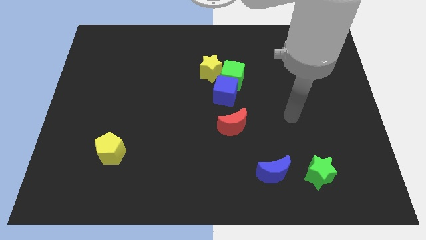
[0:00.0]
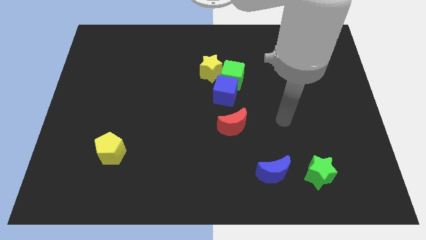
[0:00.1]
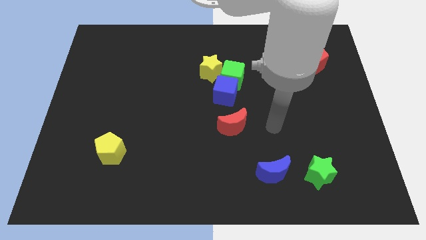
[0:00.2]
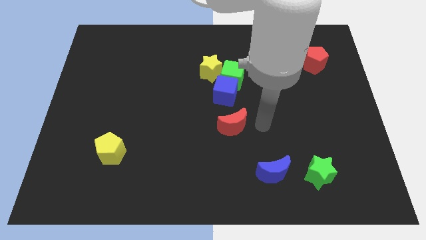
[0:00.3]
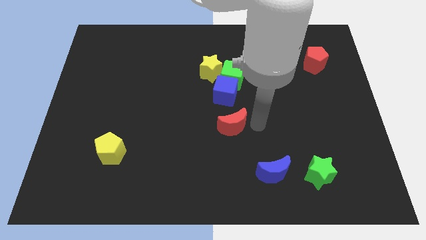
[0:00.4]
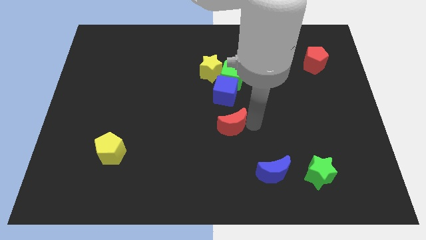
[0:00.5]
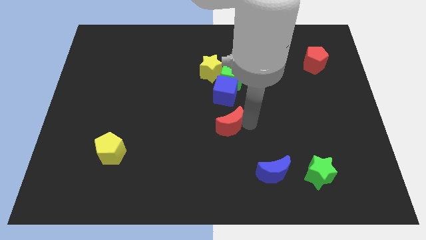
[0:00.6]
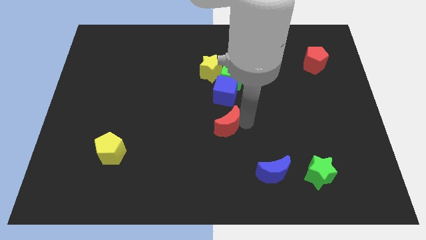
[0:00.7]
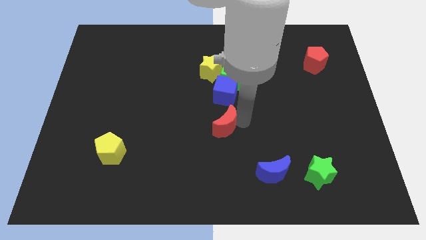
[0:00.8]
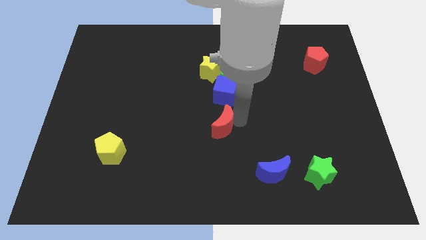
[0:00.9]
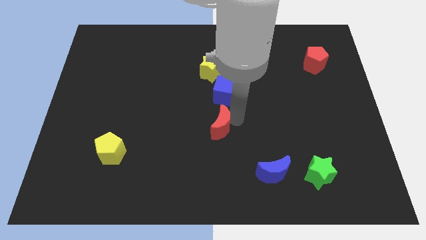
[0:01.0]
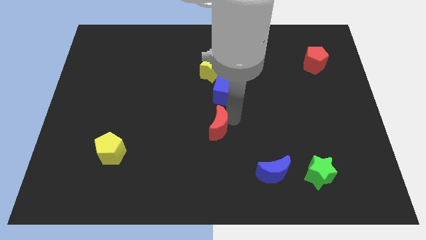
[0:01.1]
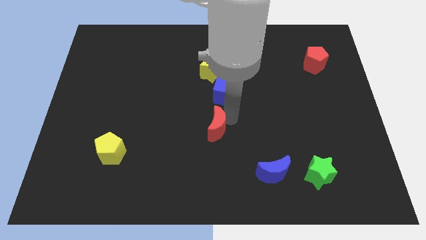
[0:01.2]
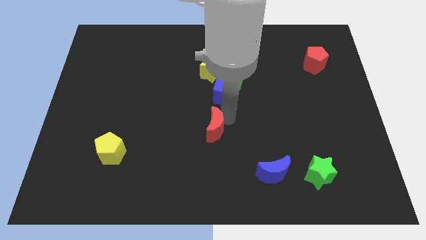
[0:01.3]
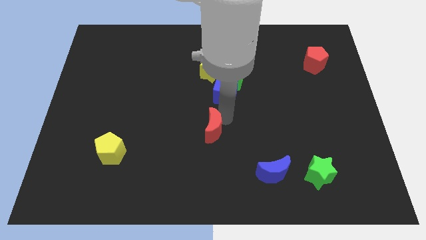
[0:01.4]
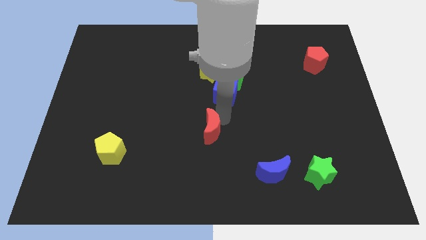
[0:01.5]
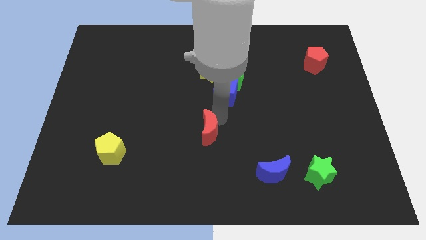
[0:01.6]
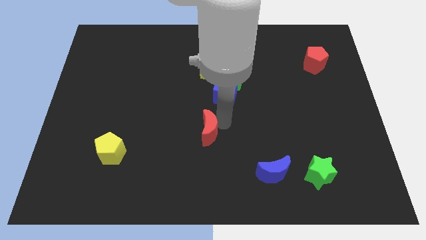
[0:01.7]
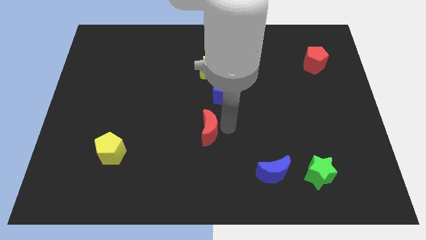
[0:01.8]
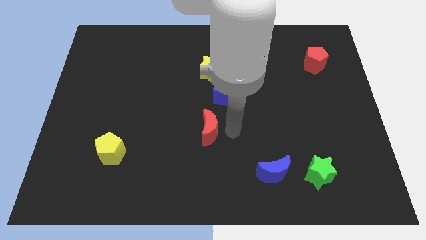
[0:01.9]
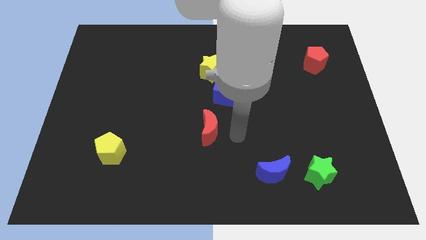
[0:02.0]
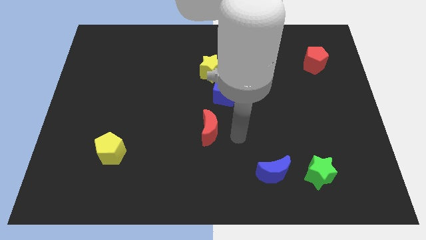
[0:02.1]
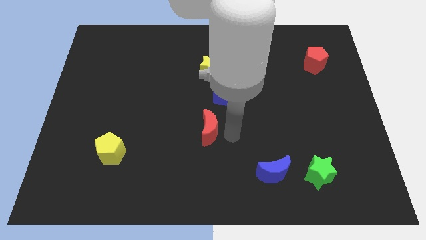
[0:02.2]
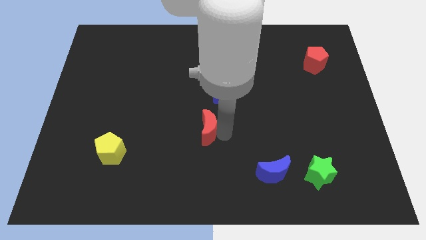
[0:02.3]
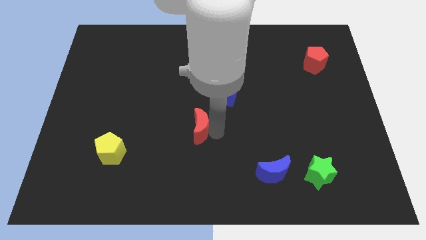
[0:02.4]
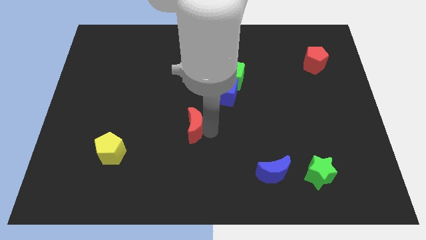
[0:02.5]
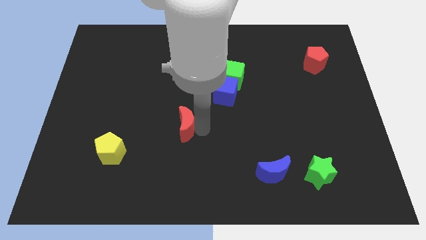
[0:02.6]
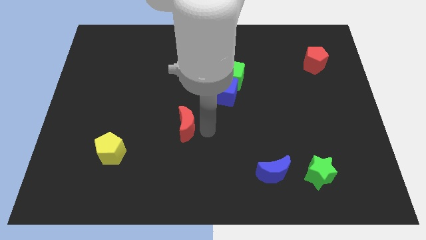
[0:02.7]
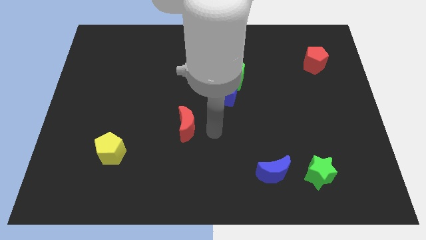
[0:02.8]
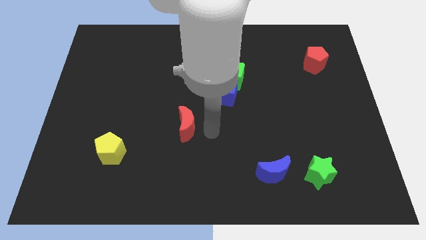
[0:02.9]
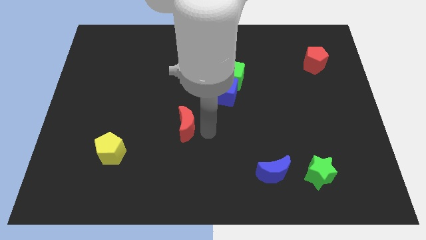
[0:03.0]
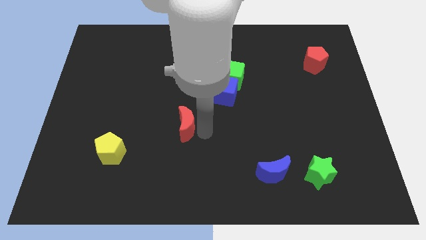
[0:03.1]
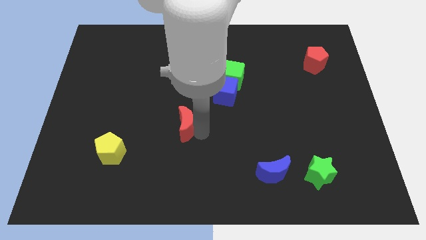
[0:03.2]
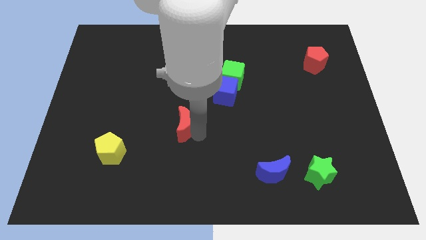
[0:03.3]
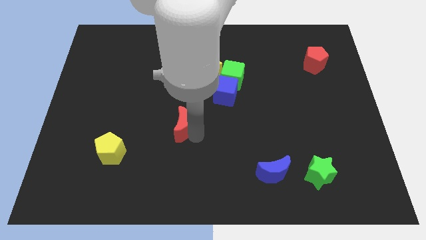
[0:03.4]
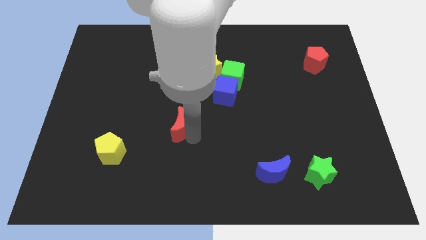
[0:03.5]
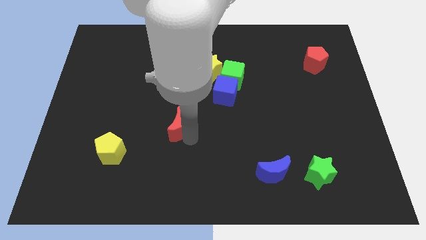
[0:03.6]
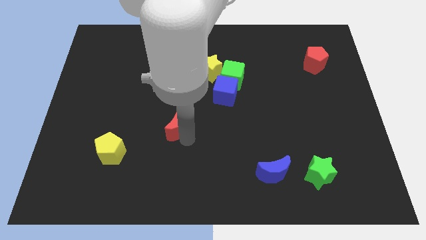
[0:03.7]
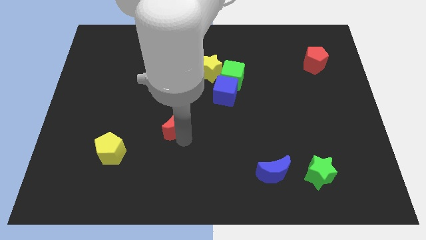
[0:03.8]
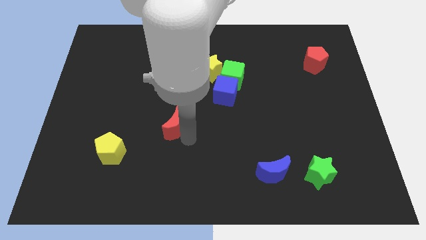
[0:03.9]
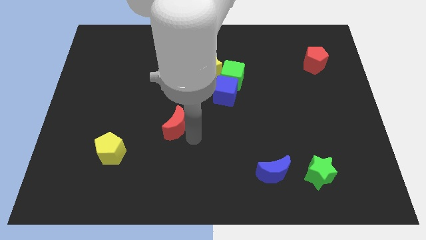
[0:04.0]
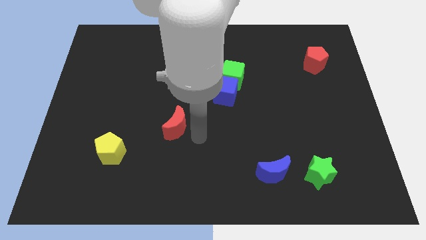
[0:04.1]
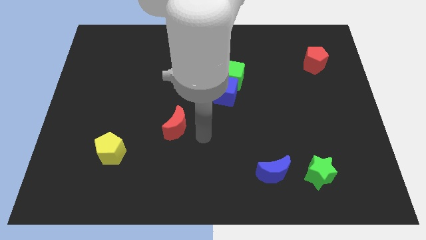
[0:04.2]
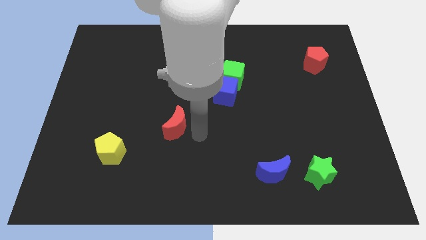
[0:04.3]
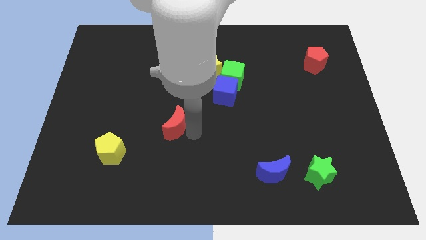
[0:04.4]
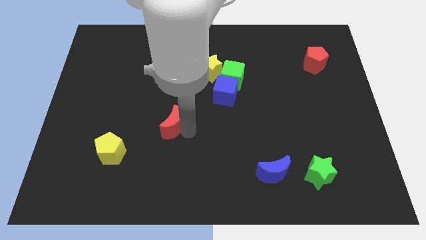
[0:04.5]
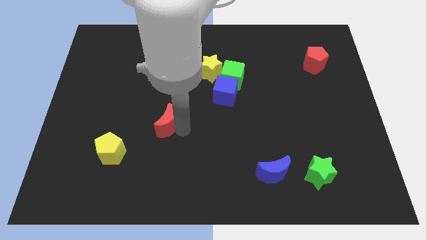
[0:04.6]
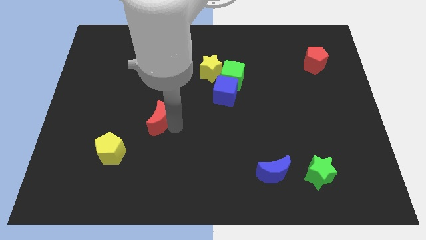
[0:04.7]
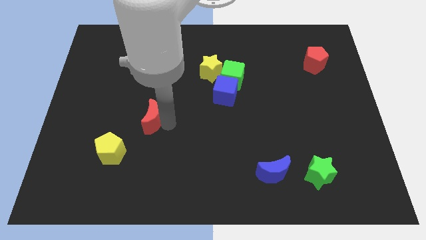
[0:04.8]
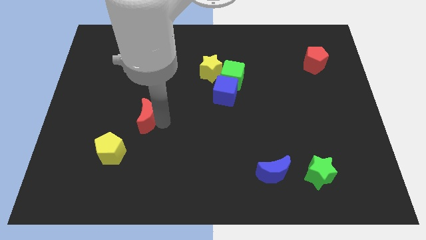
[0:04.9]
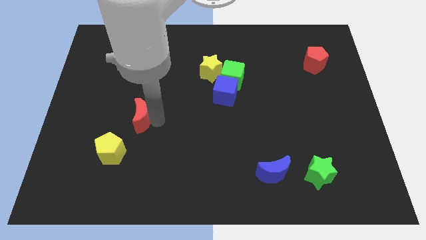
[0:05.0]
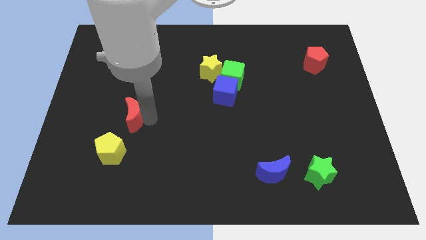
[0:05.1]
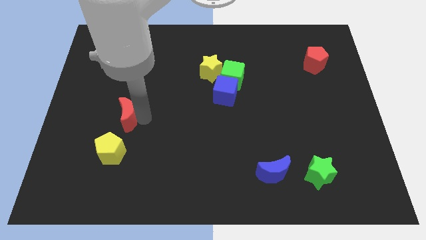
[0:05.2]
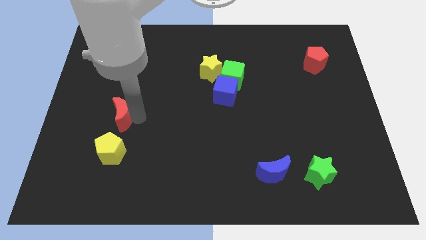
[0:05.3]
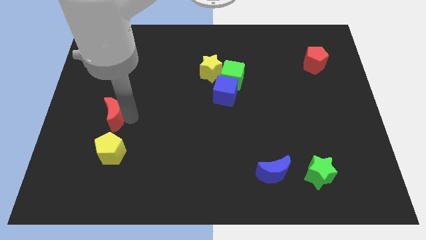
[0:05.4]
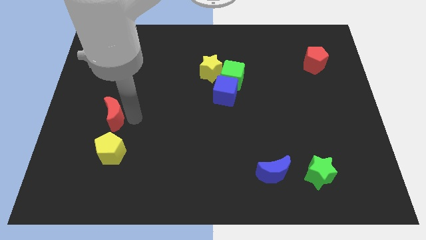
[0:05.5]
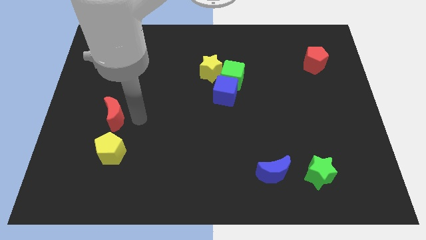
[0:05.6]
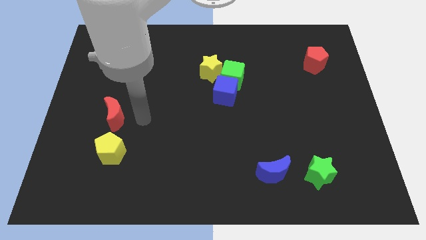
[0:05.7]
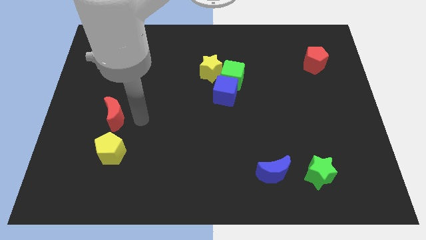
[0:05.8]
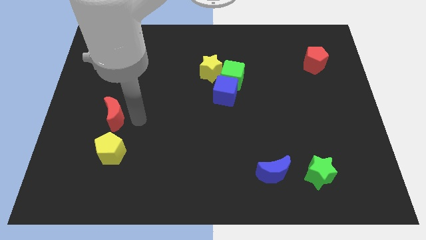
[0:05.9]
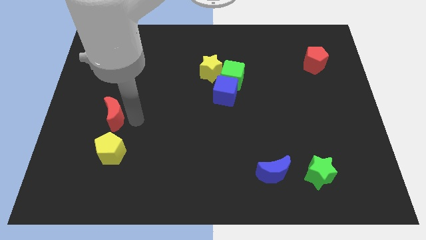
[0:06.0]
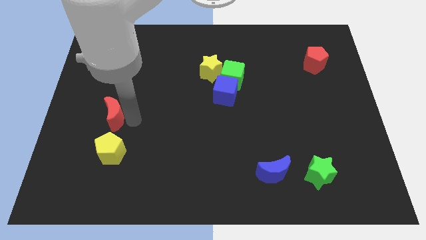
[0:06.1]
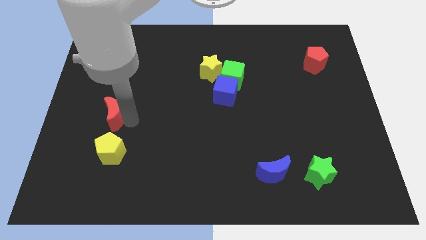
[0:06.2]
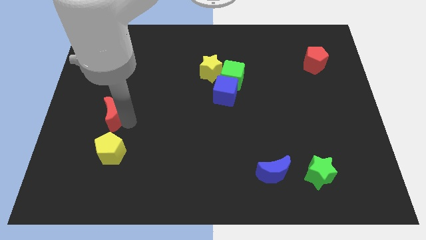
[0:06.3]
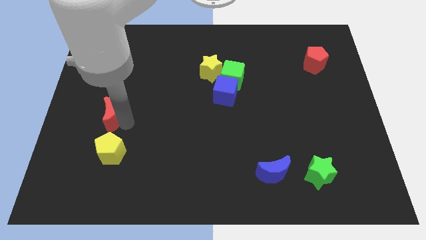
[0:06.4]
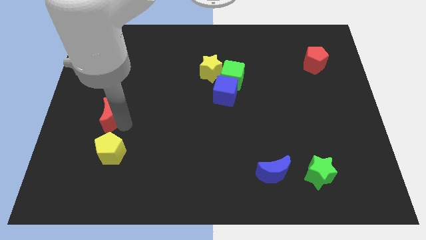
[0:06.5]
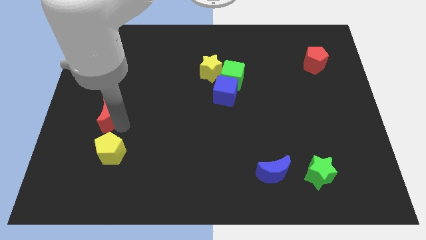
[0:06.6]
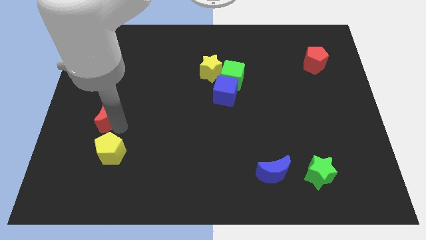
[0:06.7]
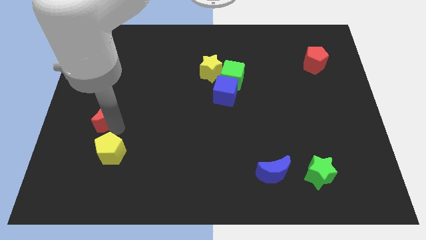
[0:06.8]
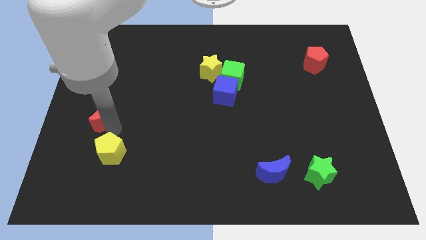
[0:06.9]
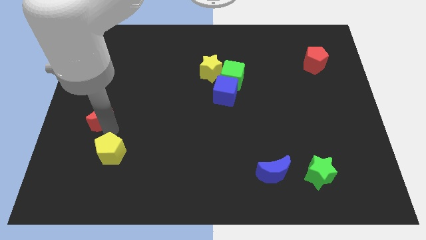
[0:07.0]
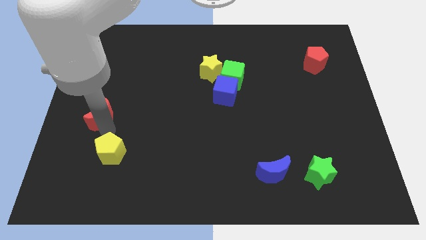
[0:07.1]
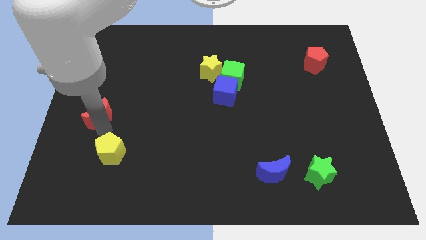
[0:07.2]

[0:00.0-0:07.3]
push the red moon to the left side
